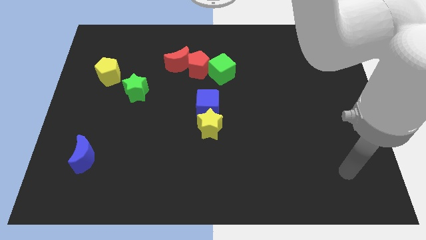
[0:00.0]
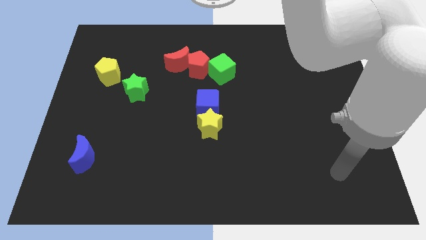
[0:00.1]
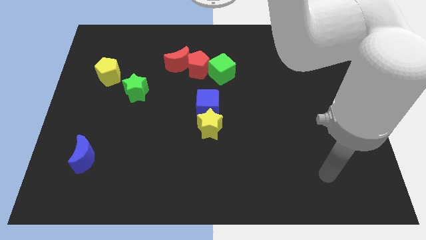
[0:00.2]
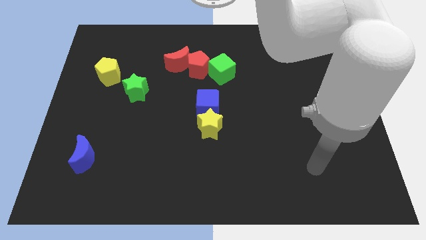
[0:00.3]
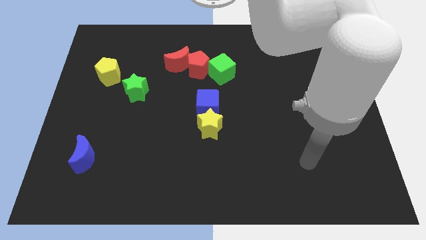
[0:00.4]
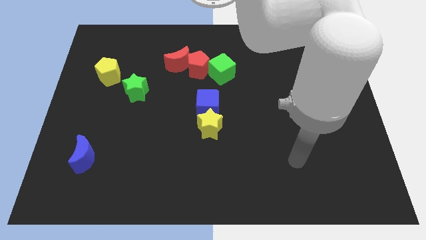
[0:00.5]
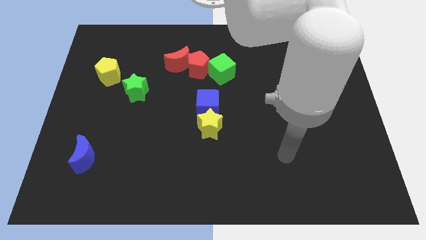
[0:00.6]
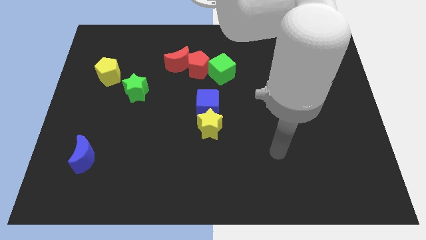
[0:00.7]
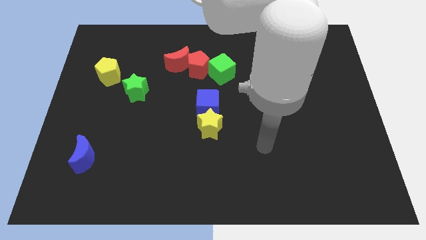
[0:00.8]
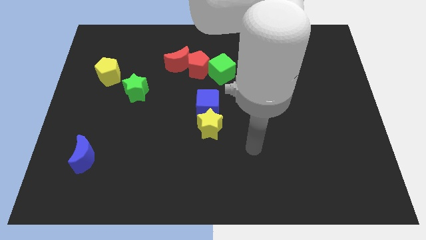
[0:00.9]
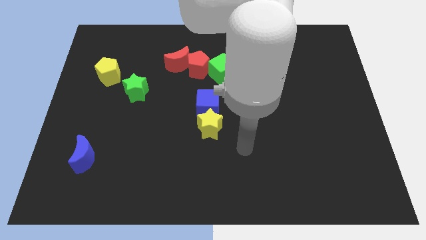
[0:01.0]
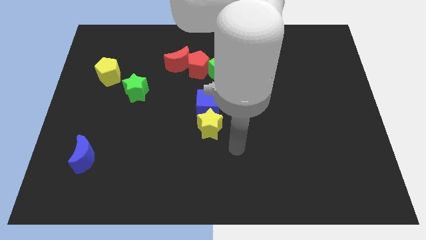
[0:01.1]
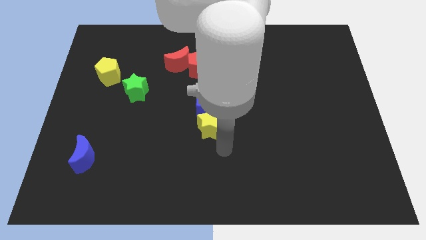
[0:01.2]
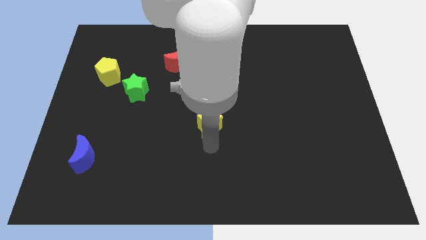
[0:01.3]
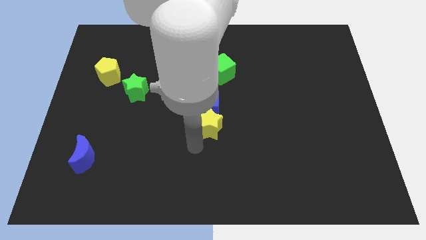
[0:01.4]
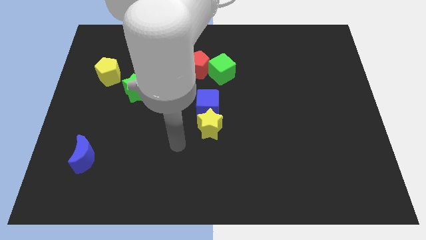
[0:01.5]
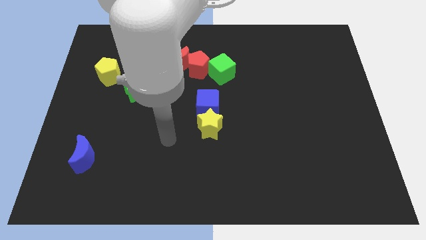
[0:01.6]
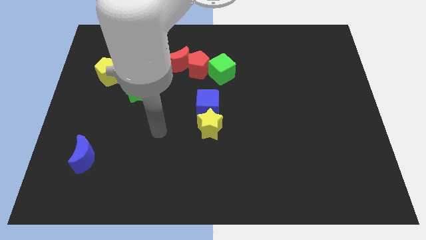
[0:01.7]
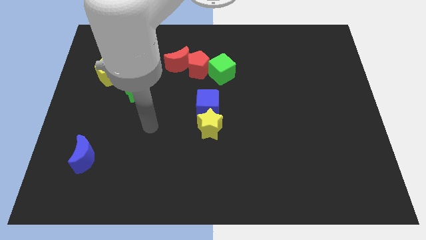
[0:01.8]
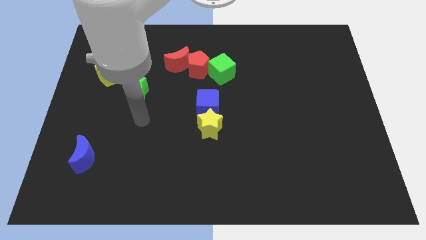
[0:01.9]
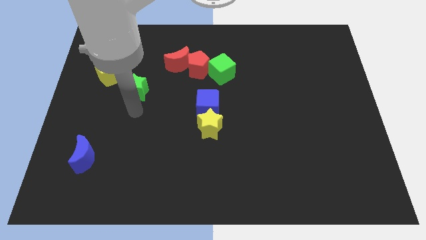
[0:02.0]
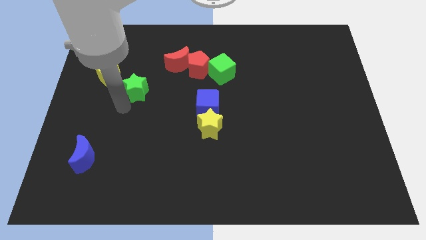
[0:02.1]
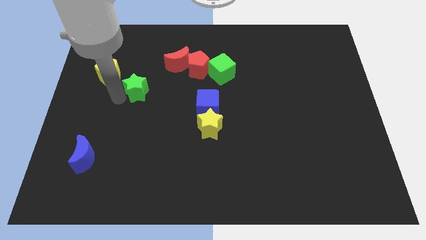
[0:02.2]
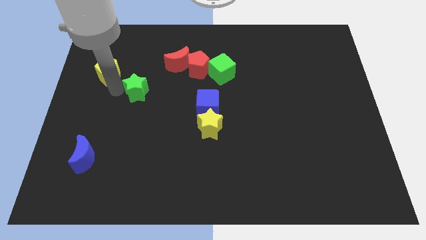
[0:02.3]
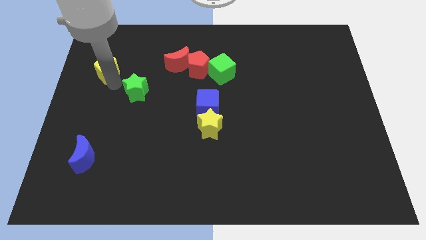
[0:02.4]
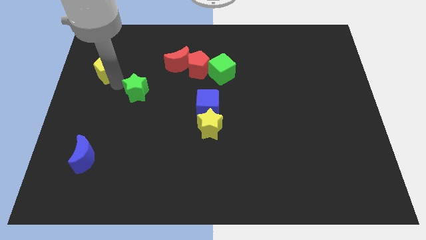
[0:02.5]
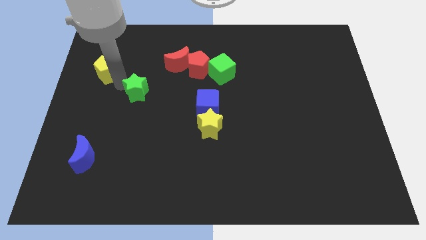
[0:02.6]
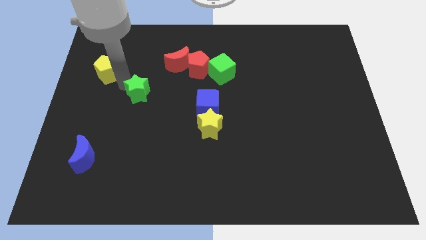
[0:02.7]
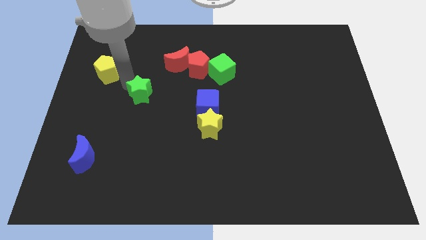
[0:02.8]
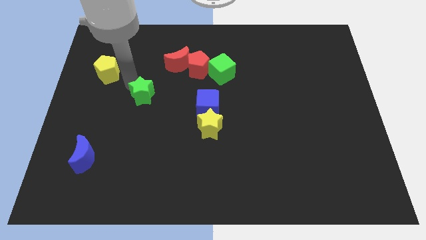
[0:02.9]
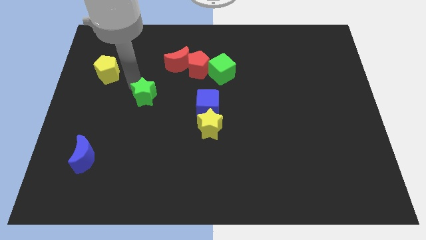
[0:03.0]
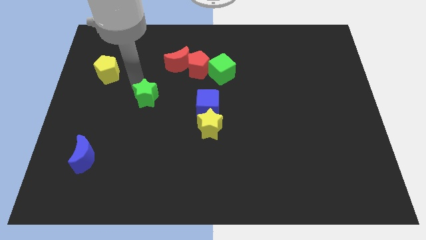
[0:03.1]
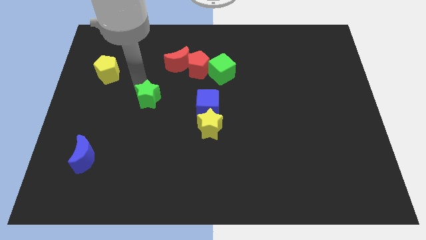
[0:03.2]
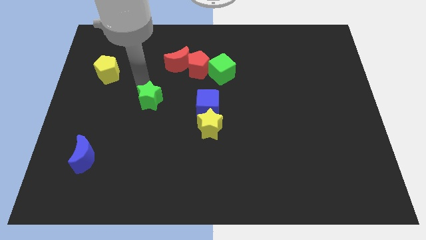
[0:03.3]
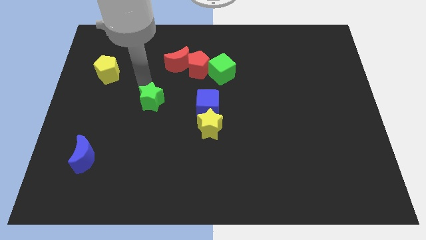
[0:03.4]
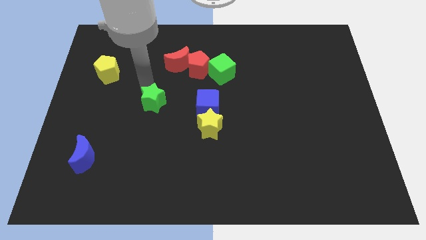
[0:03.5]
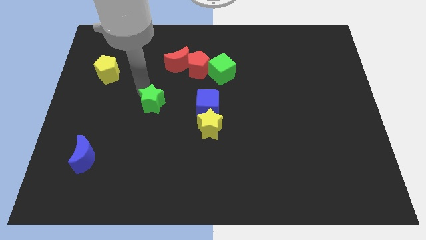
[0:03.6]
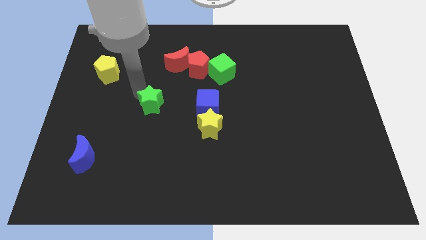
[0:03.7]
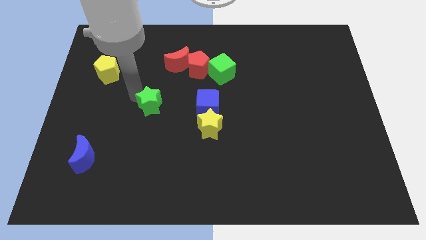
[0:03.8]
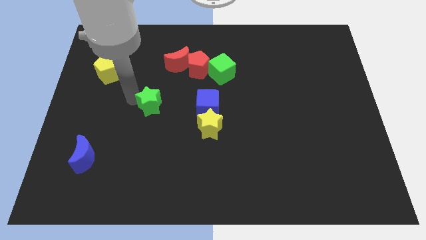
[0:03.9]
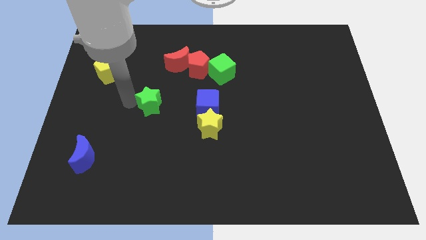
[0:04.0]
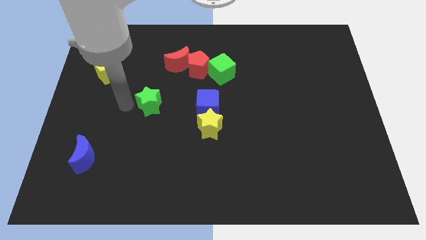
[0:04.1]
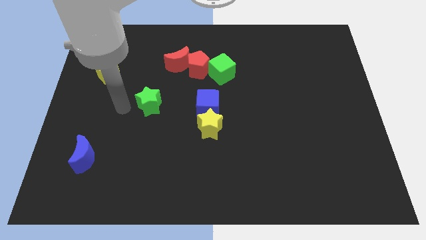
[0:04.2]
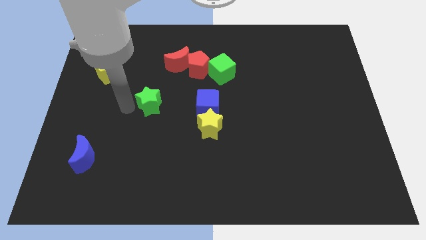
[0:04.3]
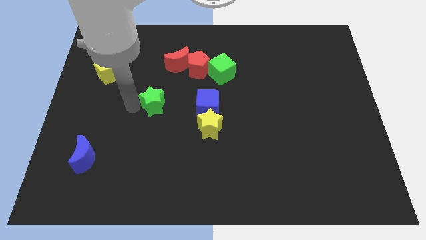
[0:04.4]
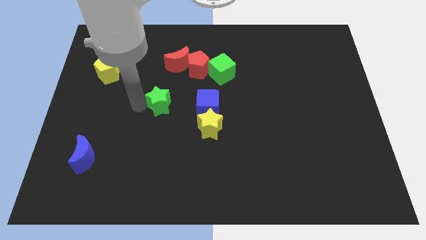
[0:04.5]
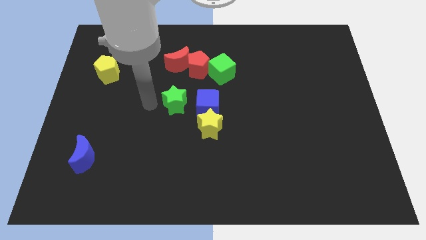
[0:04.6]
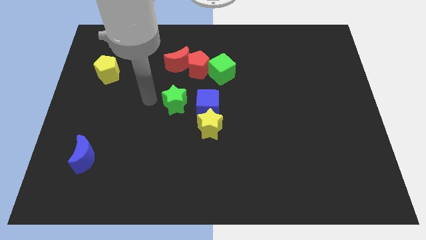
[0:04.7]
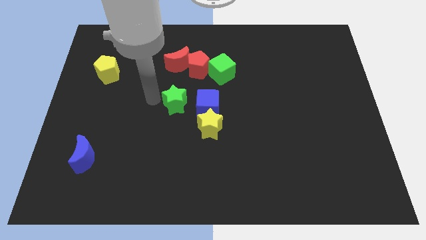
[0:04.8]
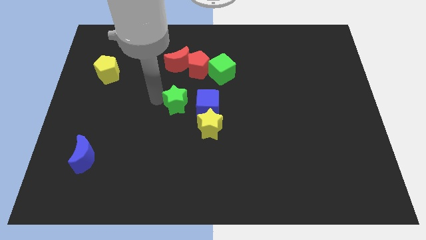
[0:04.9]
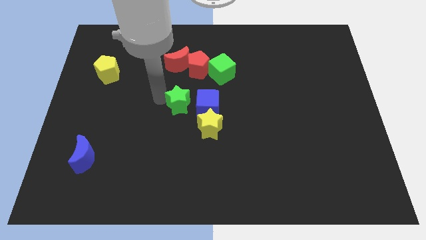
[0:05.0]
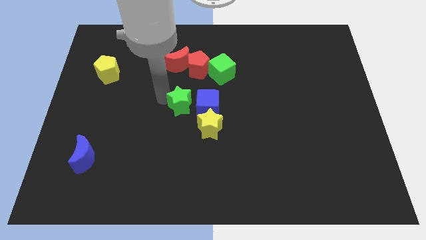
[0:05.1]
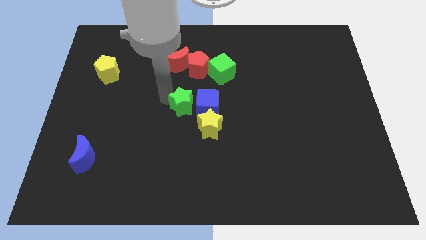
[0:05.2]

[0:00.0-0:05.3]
push the green star next to the blue cube

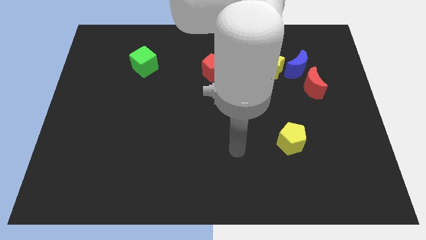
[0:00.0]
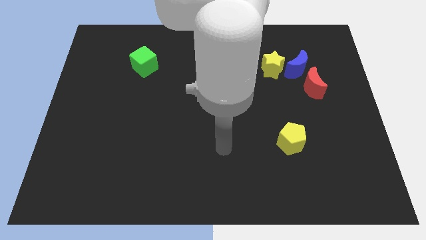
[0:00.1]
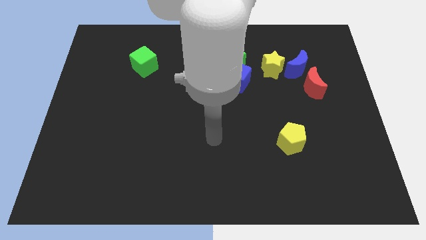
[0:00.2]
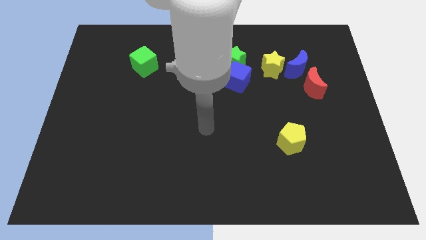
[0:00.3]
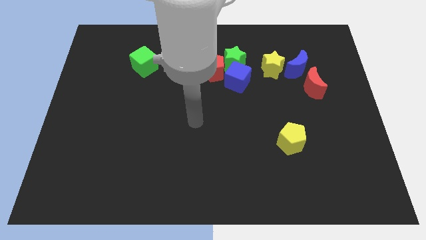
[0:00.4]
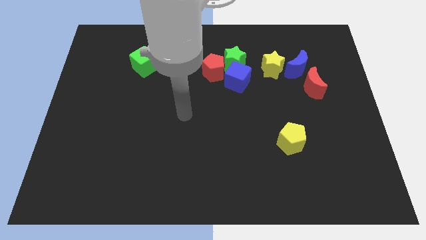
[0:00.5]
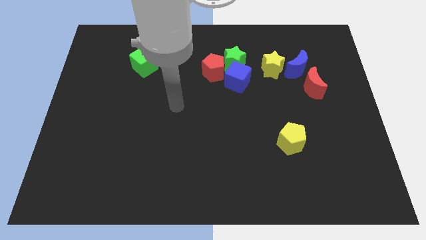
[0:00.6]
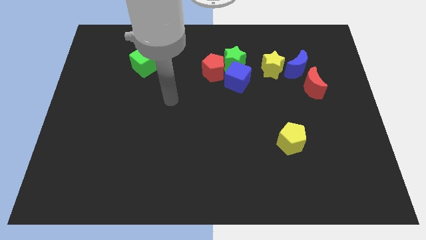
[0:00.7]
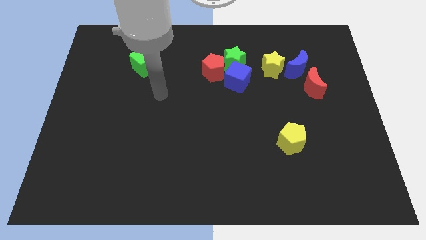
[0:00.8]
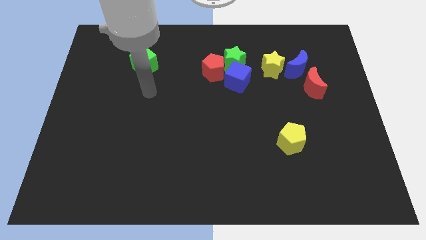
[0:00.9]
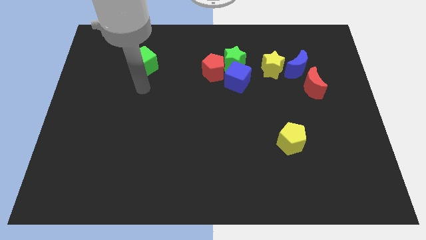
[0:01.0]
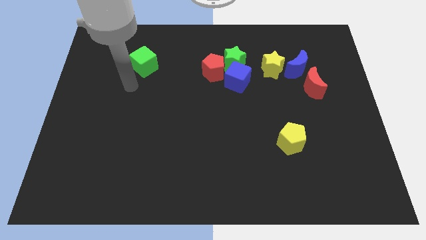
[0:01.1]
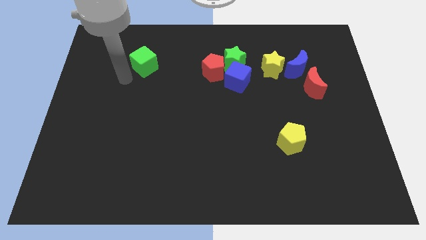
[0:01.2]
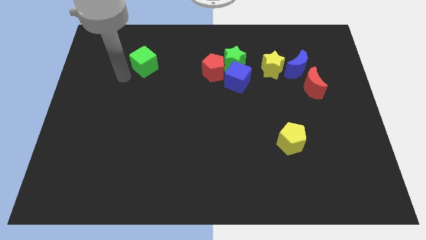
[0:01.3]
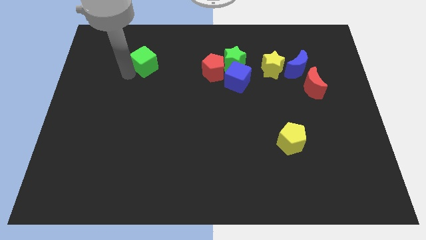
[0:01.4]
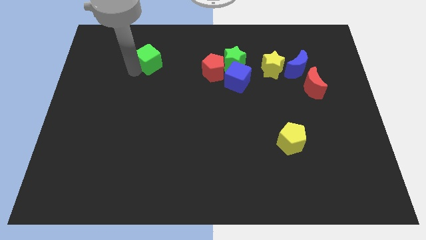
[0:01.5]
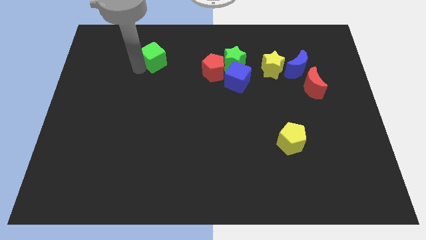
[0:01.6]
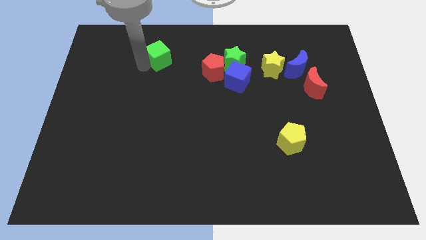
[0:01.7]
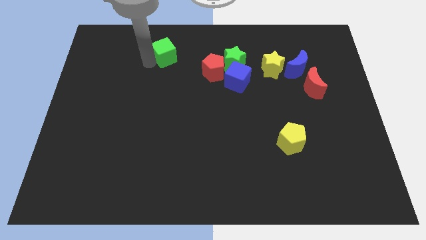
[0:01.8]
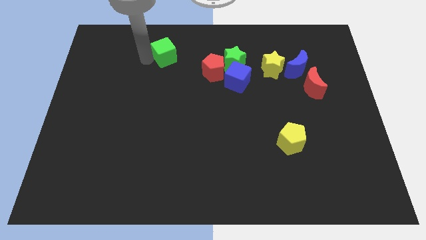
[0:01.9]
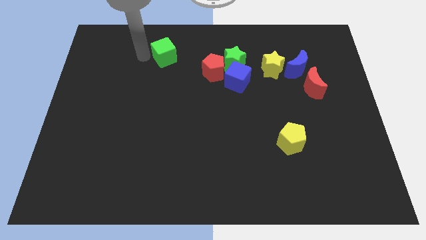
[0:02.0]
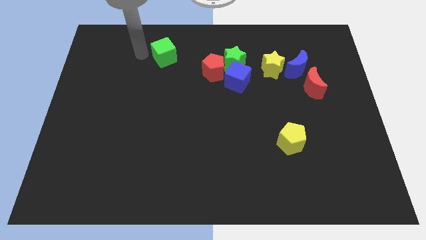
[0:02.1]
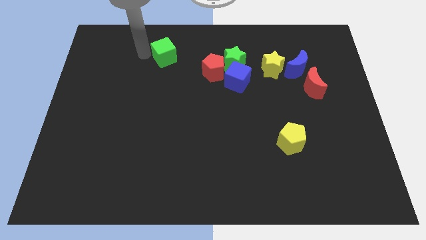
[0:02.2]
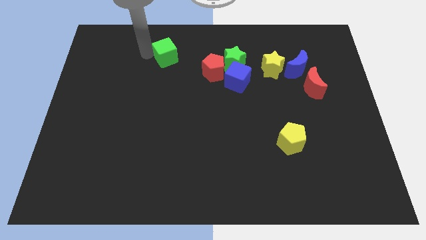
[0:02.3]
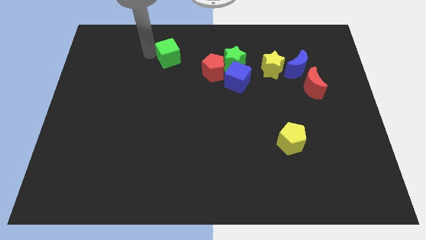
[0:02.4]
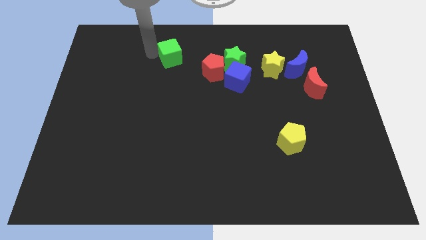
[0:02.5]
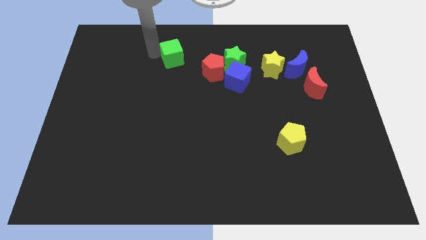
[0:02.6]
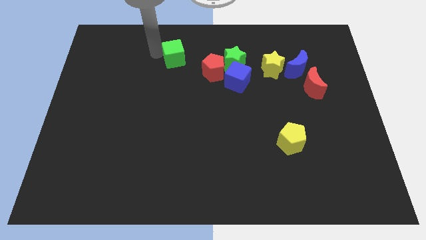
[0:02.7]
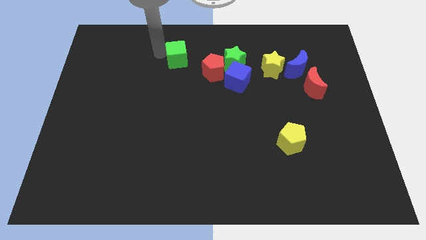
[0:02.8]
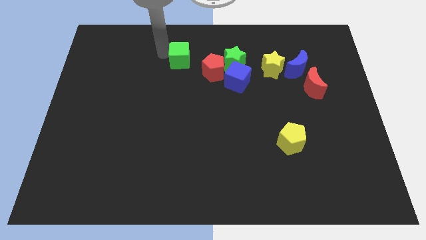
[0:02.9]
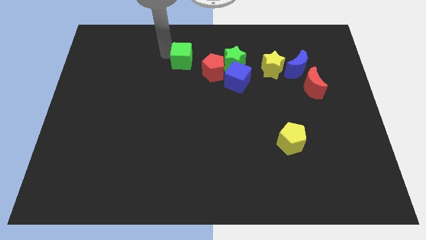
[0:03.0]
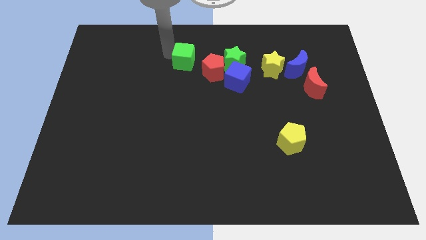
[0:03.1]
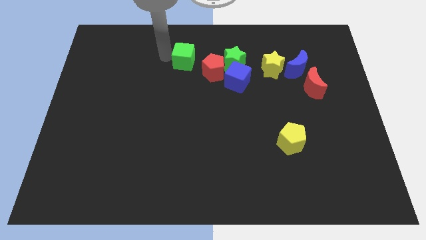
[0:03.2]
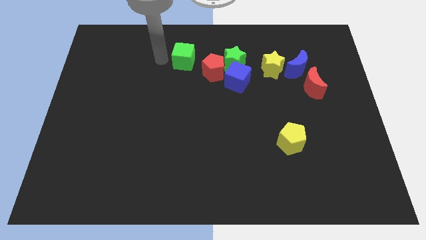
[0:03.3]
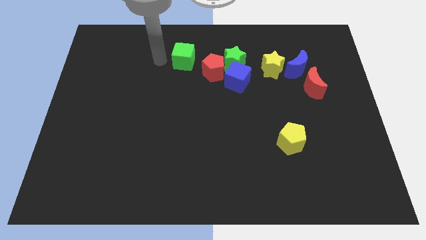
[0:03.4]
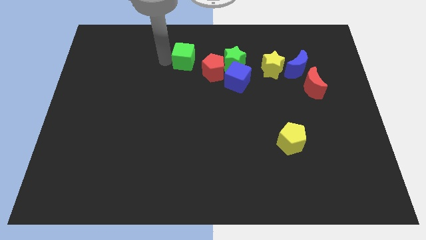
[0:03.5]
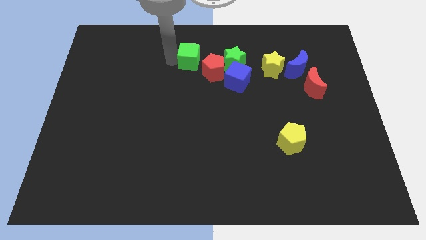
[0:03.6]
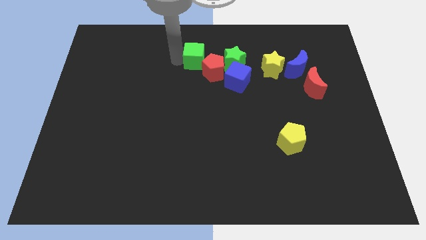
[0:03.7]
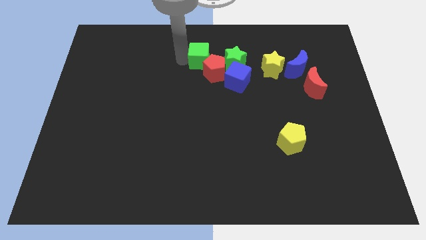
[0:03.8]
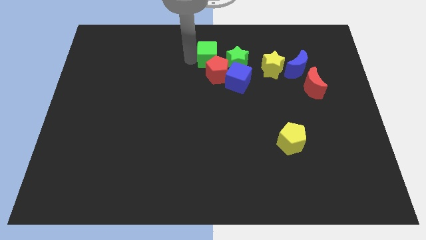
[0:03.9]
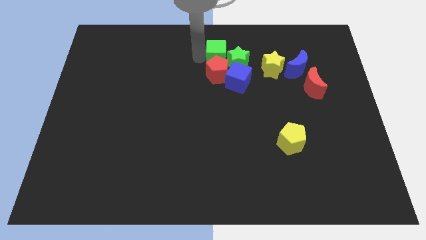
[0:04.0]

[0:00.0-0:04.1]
put the green cube to the green star
